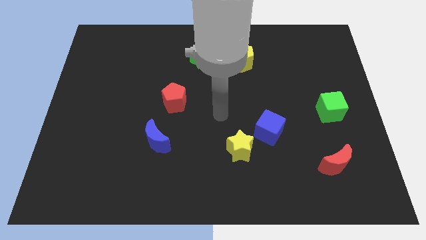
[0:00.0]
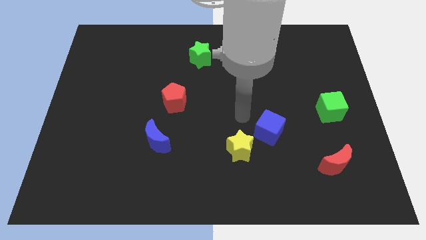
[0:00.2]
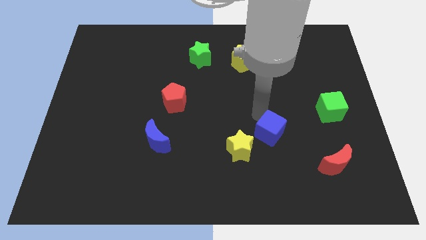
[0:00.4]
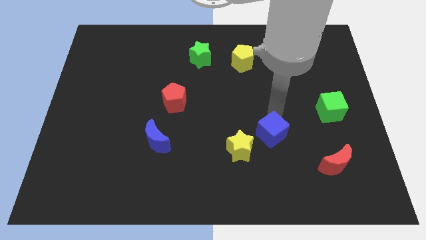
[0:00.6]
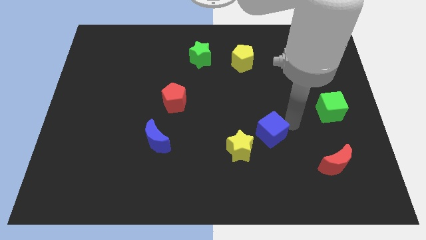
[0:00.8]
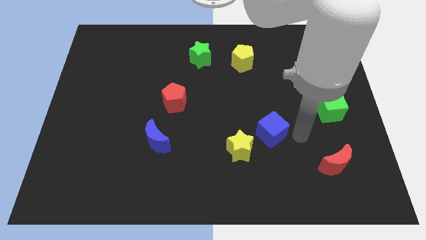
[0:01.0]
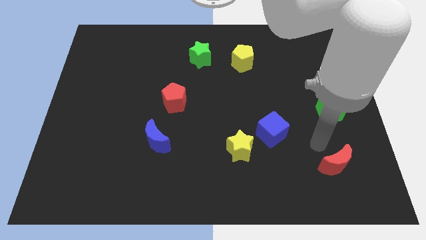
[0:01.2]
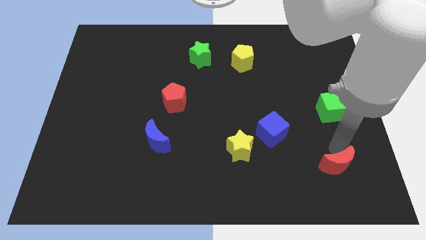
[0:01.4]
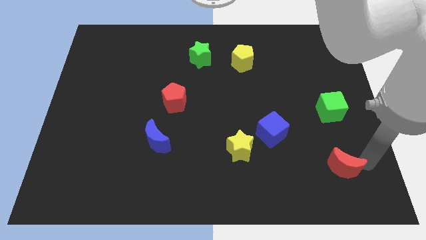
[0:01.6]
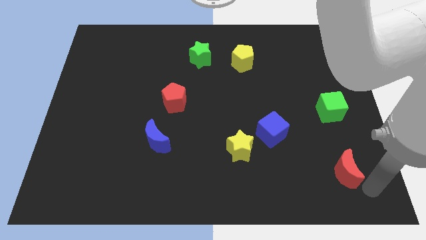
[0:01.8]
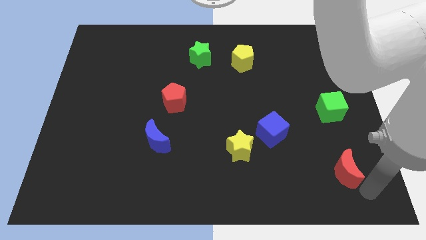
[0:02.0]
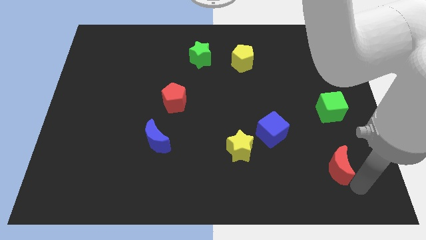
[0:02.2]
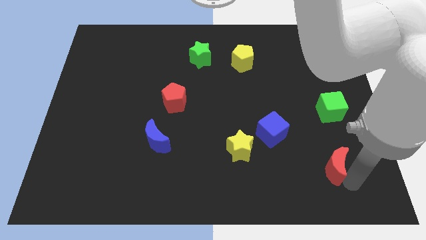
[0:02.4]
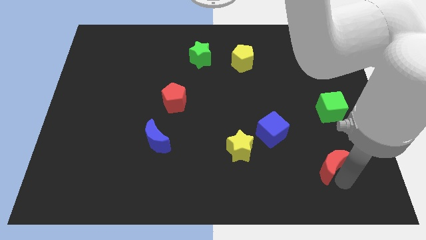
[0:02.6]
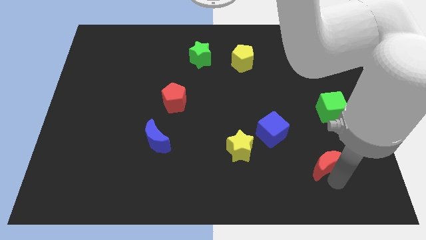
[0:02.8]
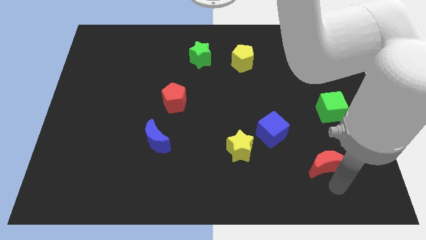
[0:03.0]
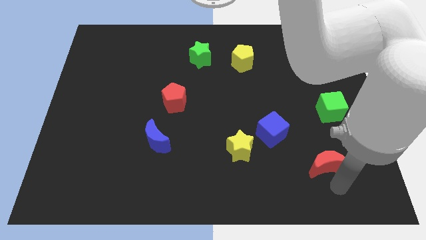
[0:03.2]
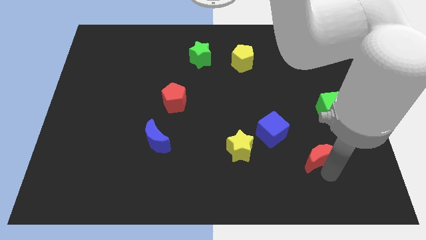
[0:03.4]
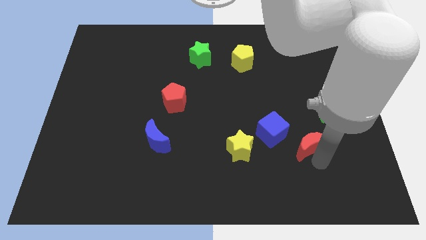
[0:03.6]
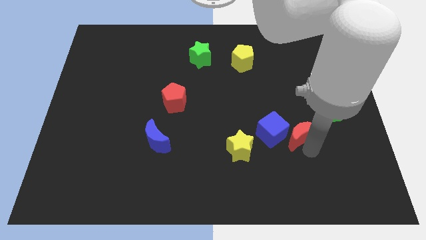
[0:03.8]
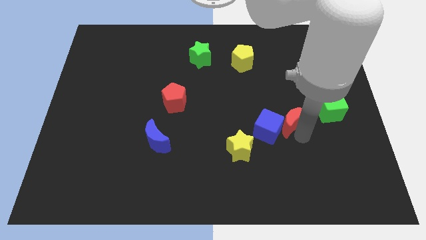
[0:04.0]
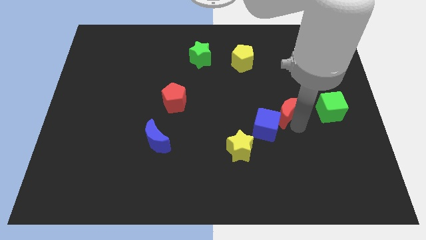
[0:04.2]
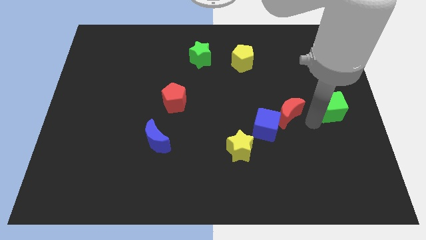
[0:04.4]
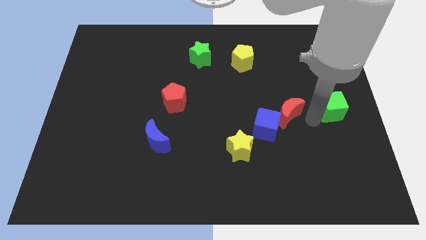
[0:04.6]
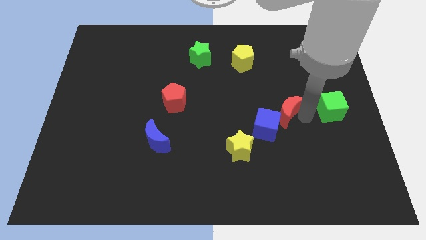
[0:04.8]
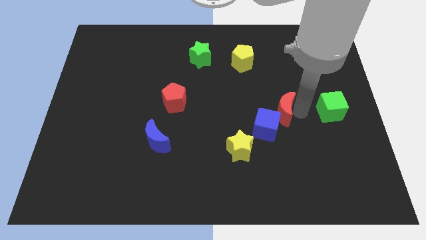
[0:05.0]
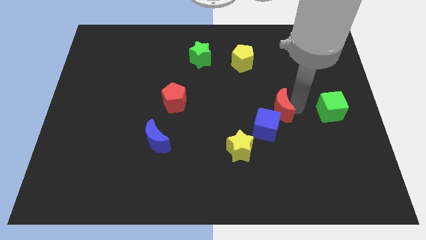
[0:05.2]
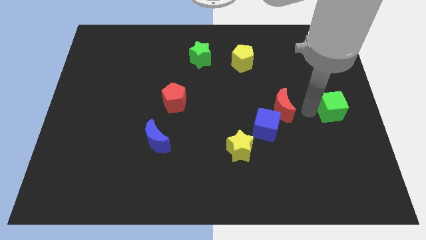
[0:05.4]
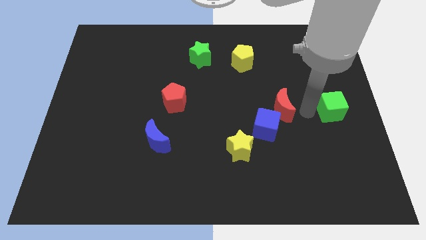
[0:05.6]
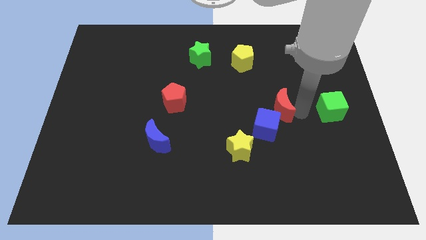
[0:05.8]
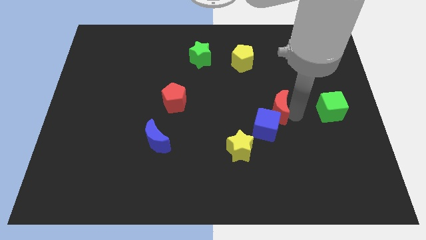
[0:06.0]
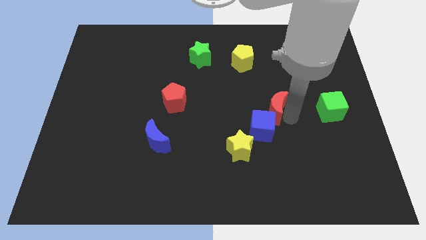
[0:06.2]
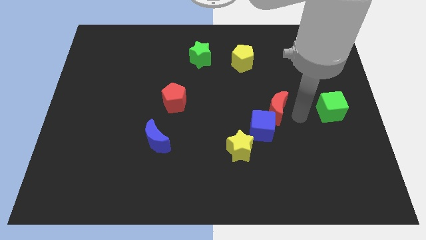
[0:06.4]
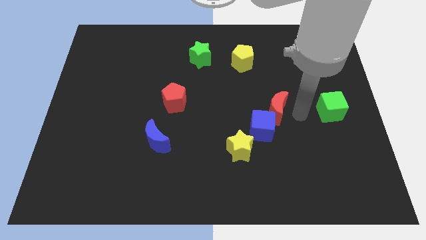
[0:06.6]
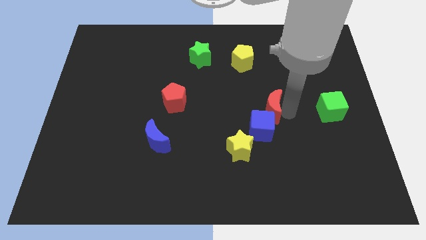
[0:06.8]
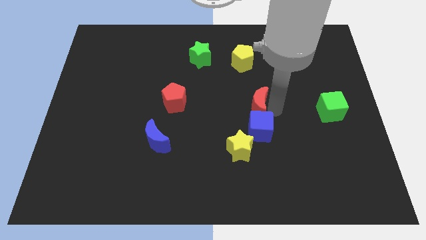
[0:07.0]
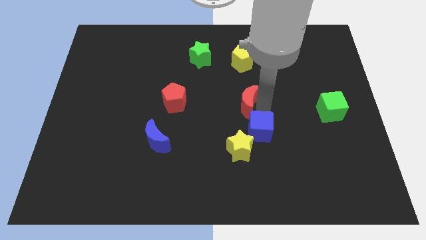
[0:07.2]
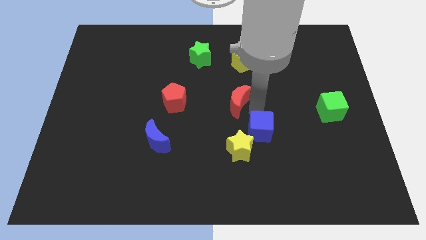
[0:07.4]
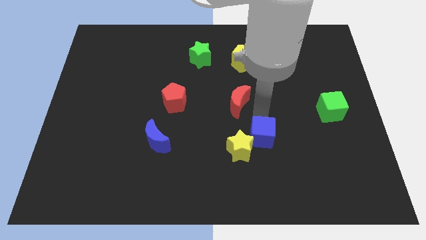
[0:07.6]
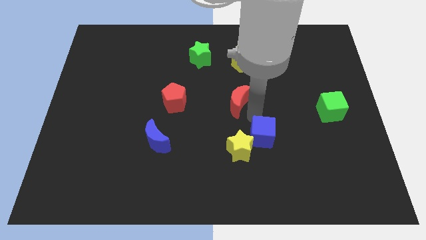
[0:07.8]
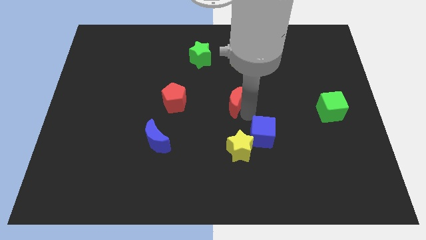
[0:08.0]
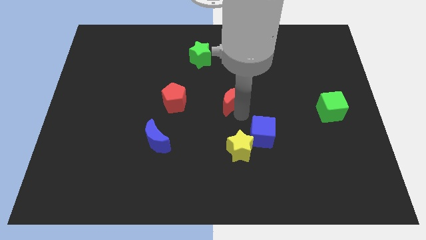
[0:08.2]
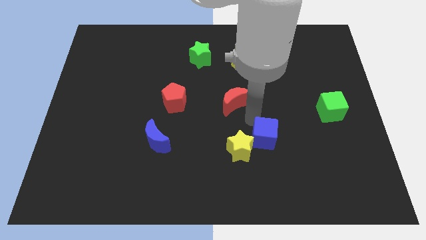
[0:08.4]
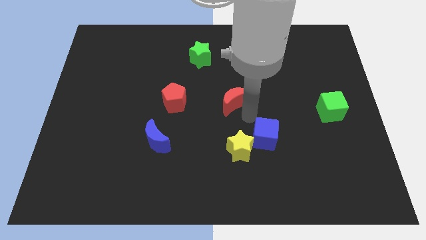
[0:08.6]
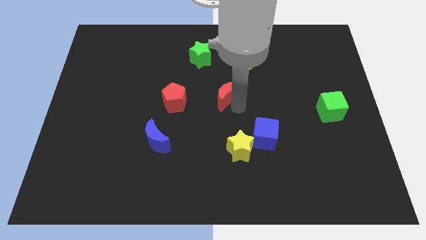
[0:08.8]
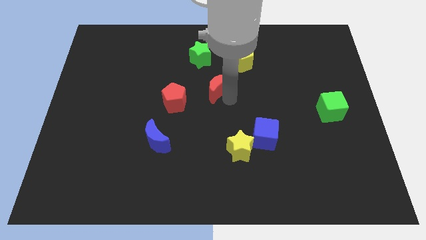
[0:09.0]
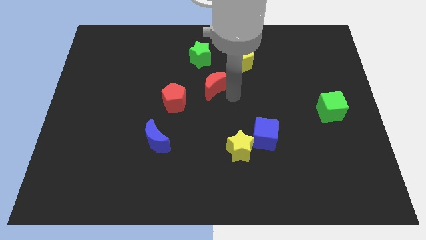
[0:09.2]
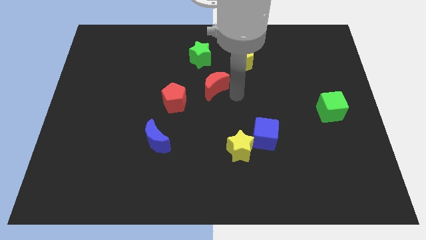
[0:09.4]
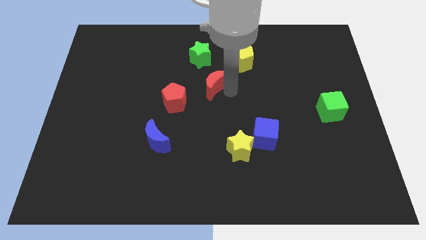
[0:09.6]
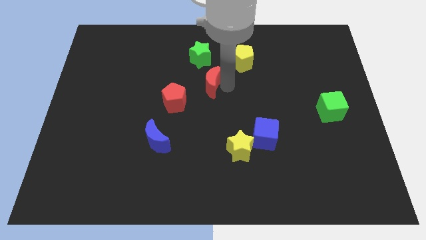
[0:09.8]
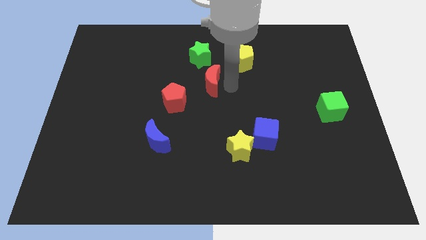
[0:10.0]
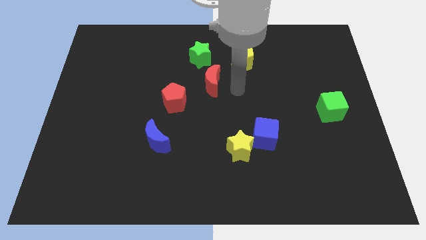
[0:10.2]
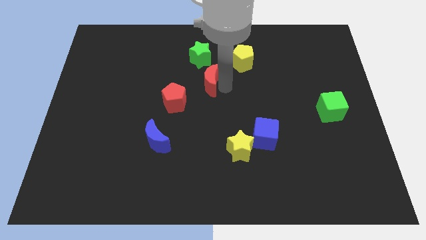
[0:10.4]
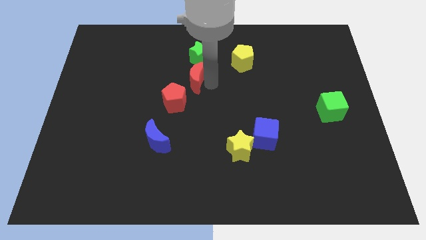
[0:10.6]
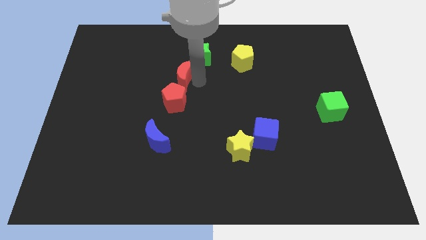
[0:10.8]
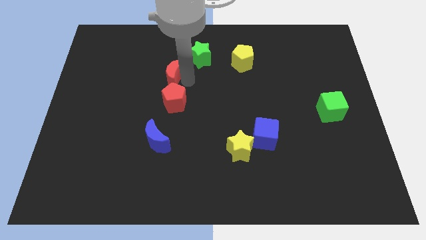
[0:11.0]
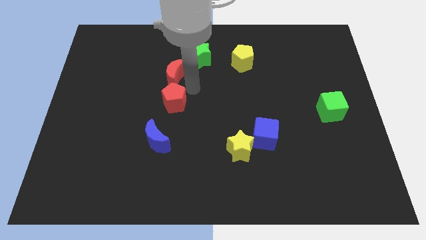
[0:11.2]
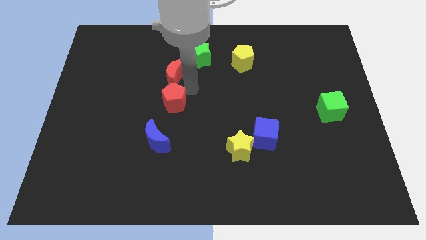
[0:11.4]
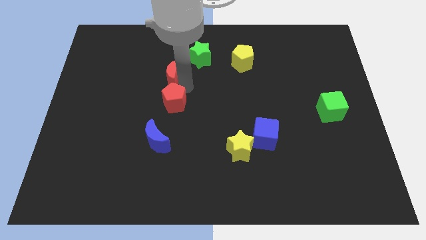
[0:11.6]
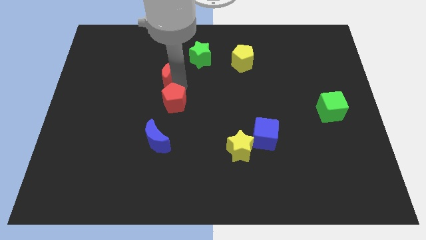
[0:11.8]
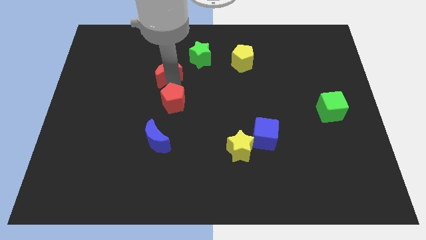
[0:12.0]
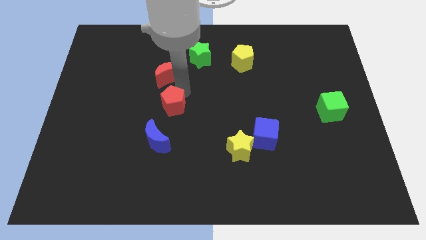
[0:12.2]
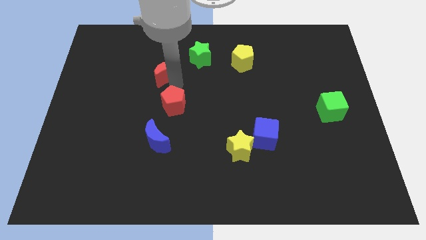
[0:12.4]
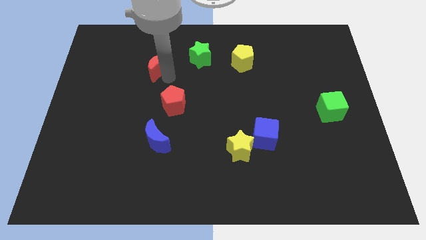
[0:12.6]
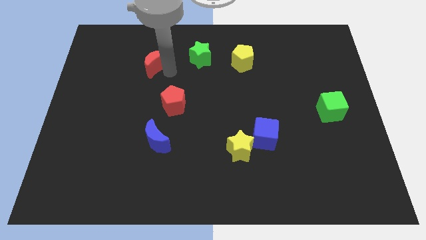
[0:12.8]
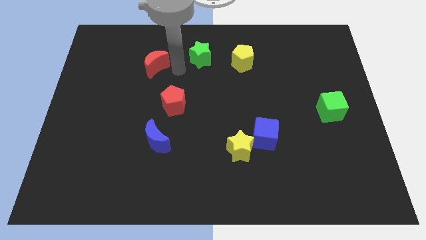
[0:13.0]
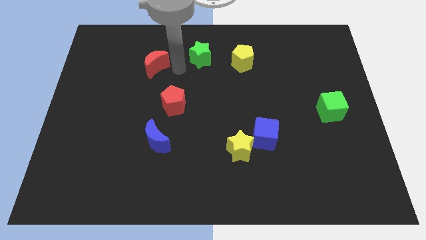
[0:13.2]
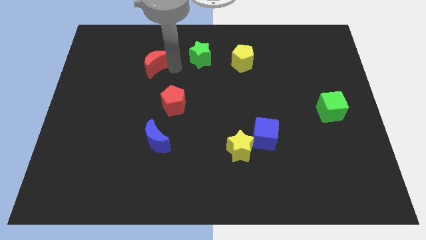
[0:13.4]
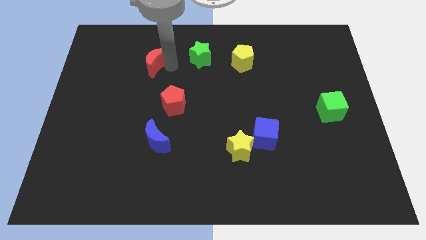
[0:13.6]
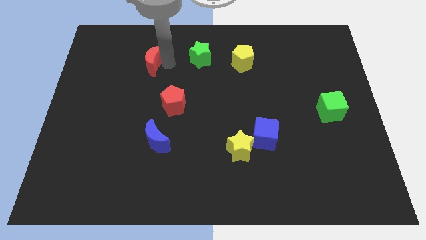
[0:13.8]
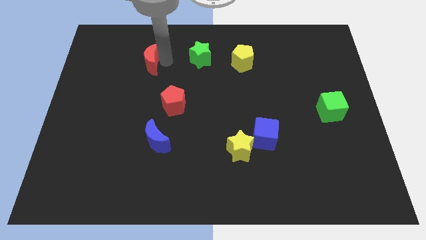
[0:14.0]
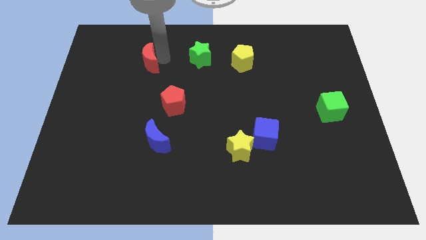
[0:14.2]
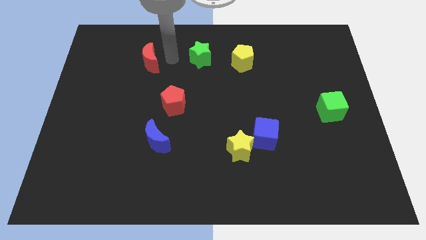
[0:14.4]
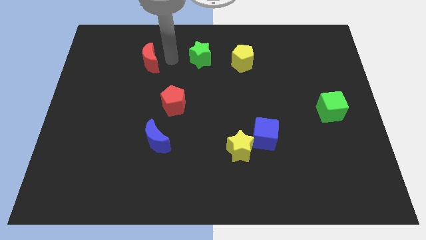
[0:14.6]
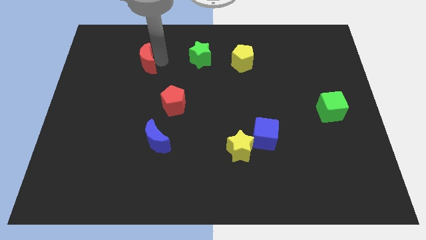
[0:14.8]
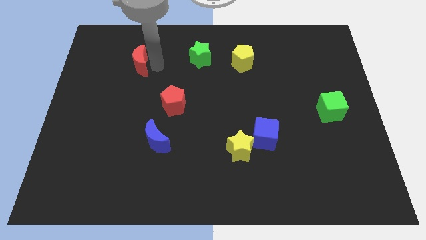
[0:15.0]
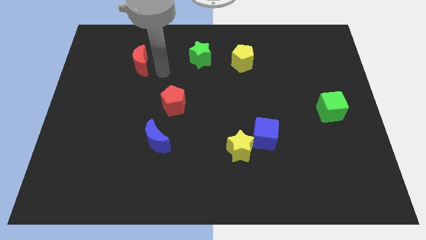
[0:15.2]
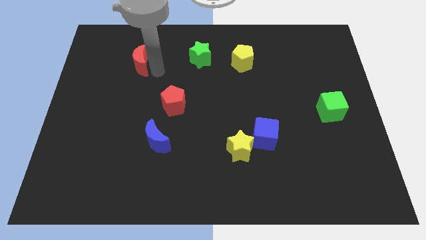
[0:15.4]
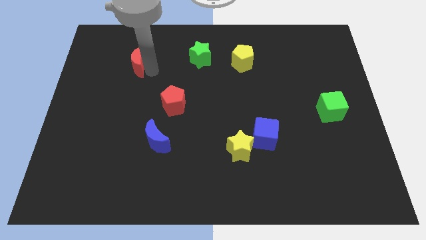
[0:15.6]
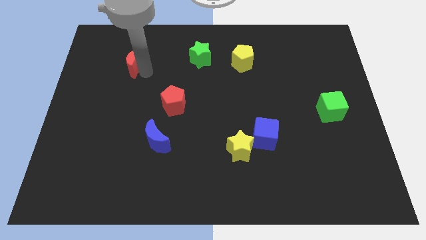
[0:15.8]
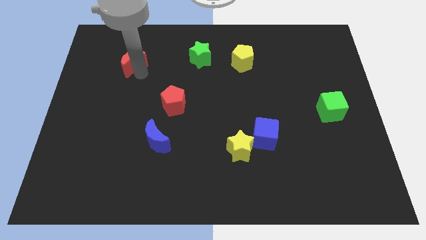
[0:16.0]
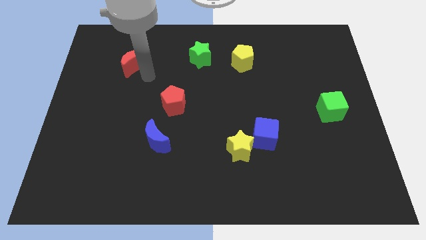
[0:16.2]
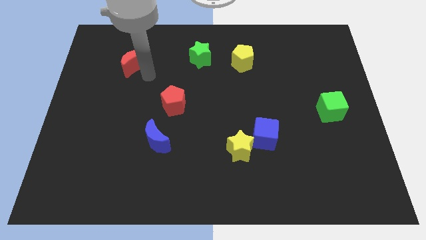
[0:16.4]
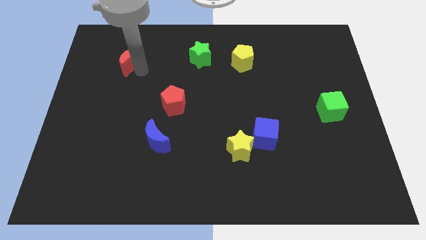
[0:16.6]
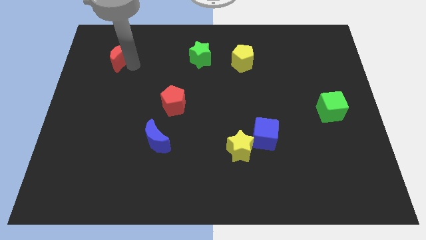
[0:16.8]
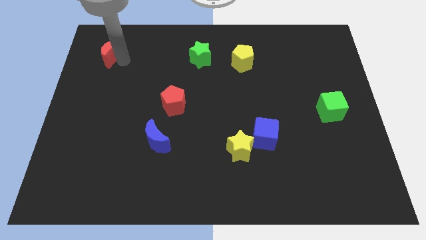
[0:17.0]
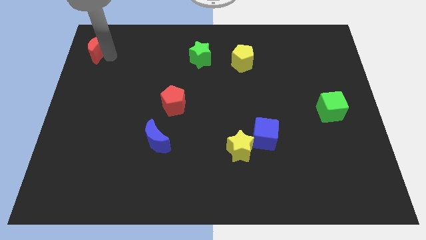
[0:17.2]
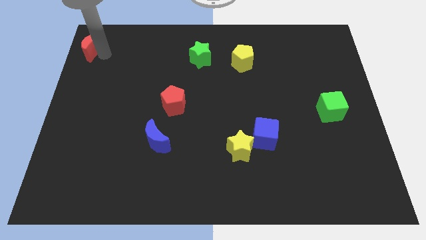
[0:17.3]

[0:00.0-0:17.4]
put the red moon to the top left corner
